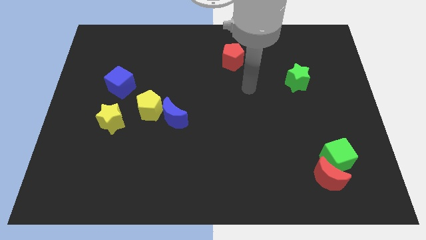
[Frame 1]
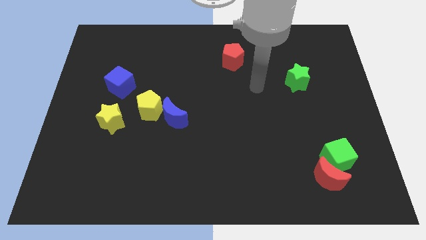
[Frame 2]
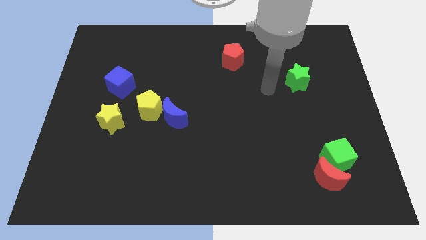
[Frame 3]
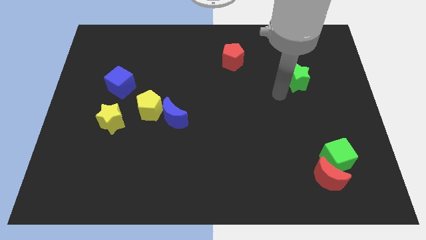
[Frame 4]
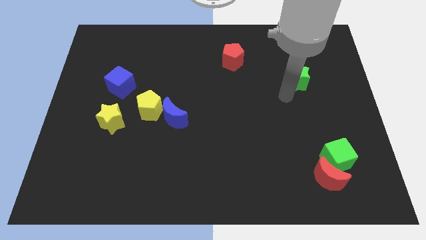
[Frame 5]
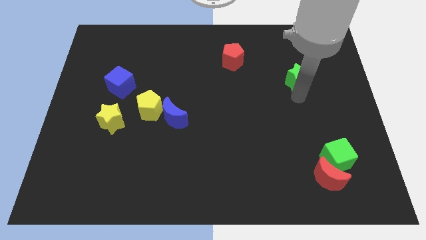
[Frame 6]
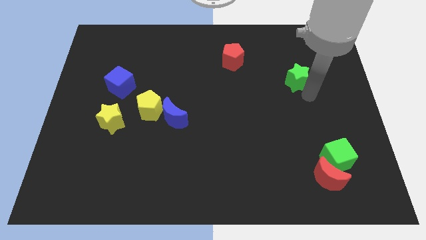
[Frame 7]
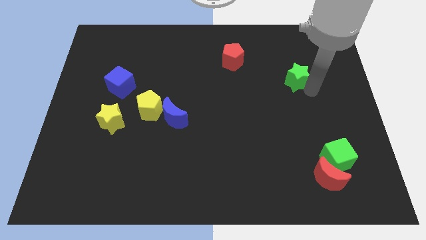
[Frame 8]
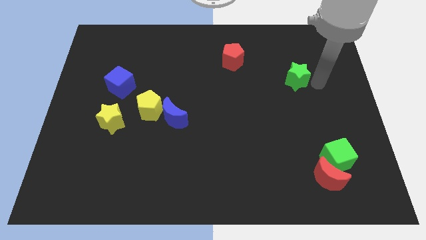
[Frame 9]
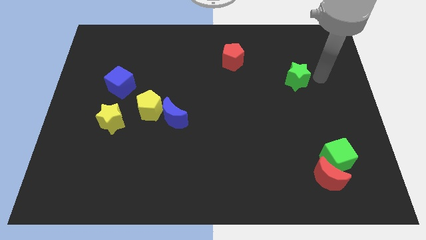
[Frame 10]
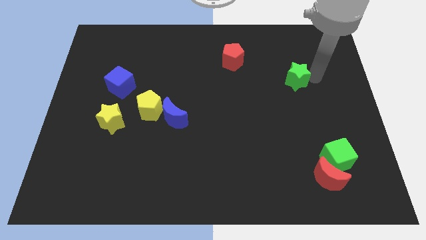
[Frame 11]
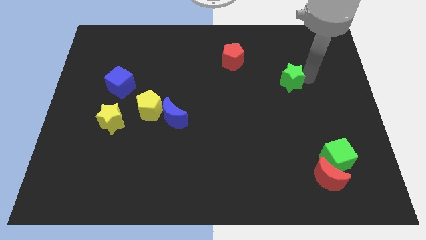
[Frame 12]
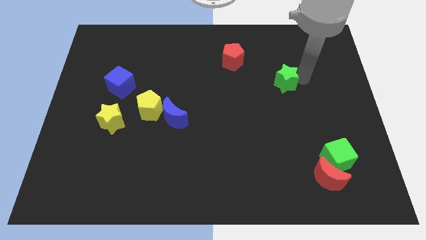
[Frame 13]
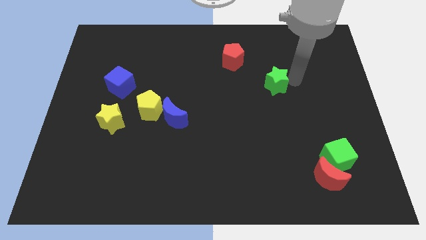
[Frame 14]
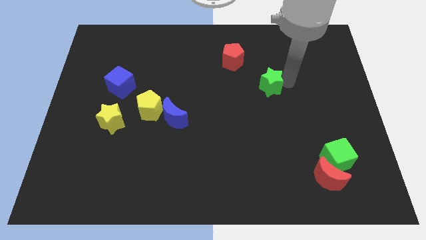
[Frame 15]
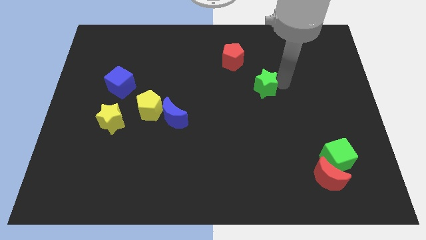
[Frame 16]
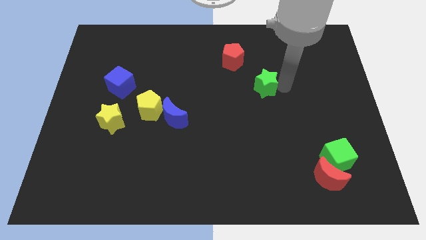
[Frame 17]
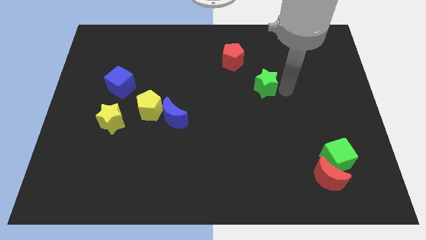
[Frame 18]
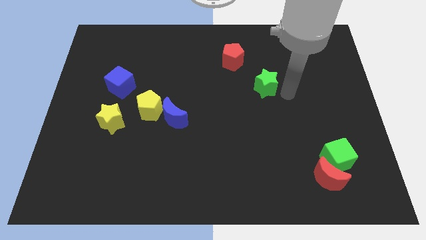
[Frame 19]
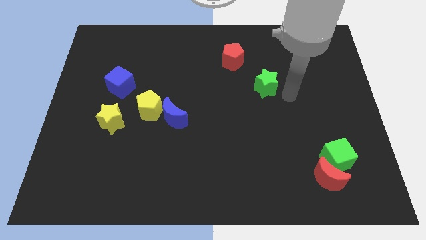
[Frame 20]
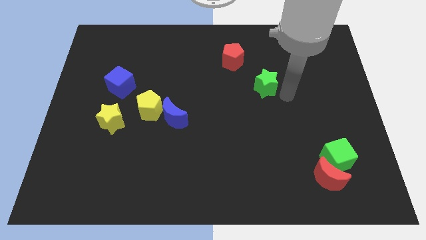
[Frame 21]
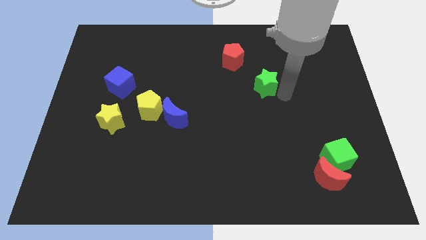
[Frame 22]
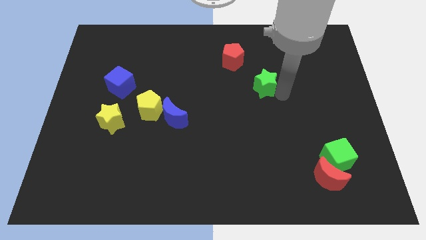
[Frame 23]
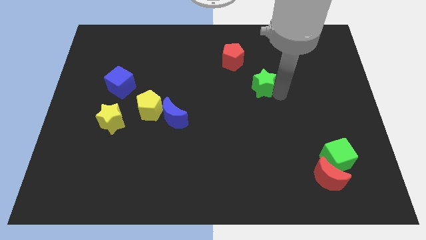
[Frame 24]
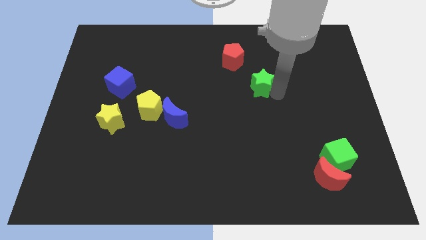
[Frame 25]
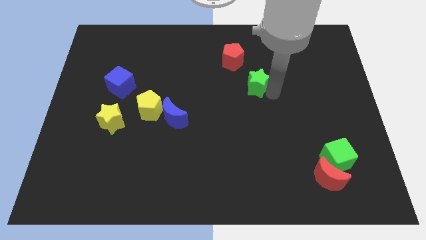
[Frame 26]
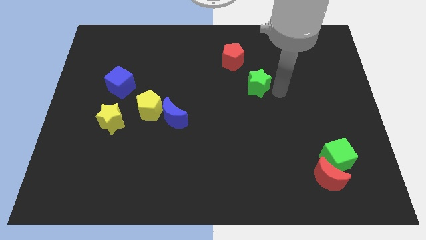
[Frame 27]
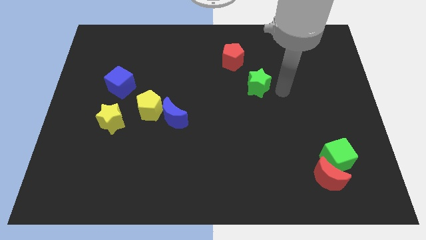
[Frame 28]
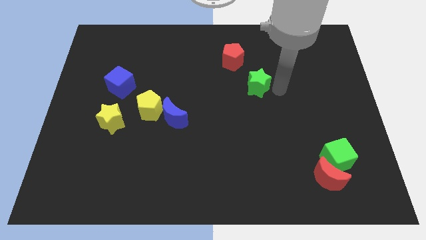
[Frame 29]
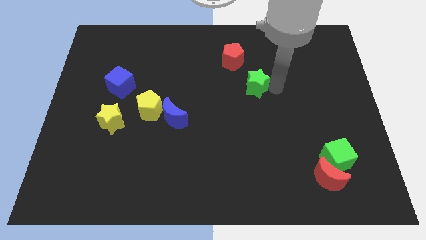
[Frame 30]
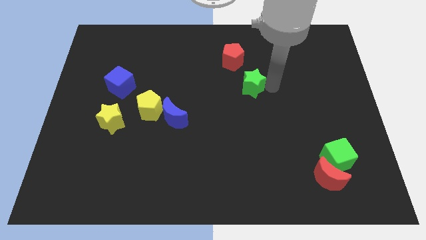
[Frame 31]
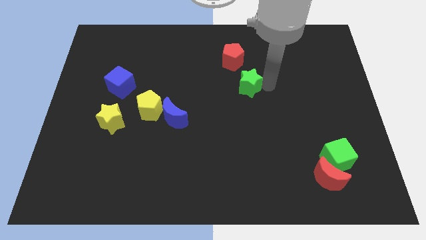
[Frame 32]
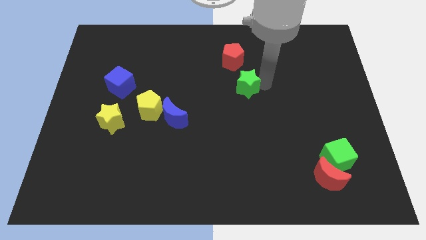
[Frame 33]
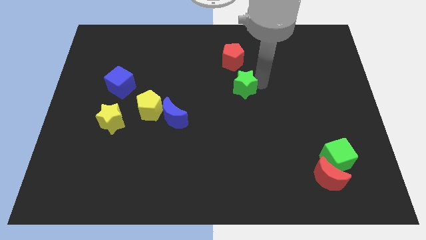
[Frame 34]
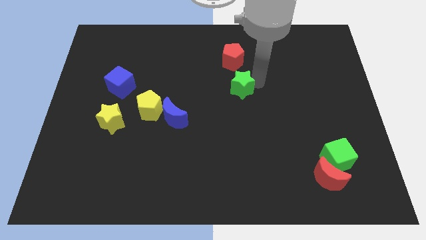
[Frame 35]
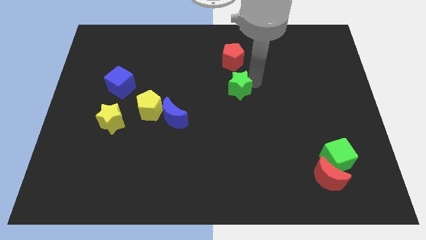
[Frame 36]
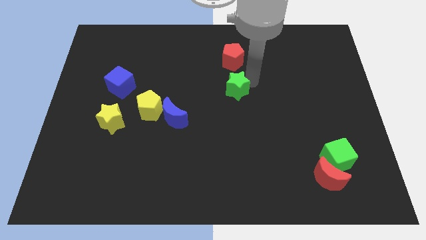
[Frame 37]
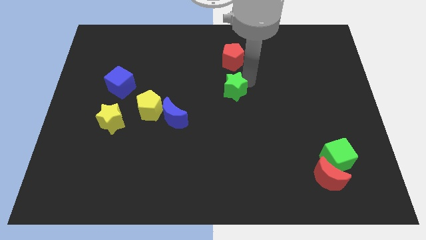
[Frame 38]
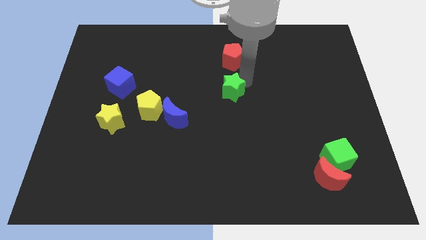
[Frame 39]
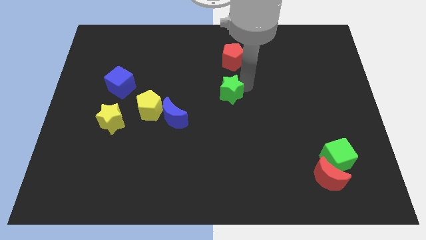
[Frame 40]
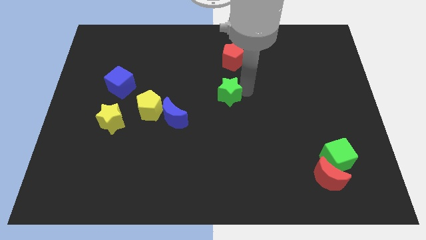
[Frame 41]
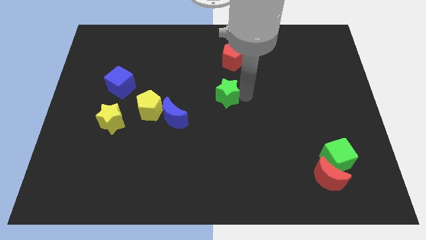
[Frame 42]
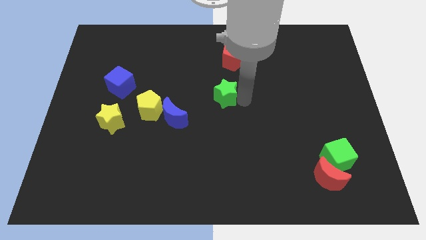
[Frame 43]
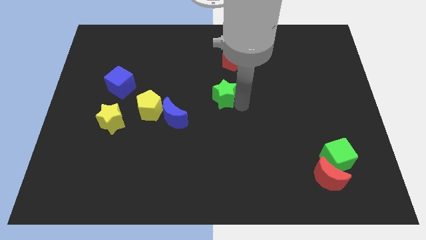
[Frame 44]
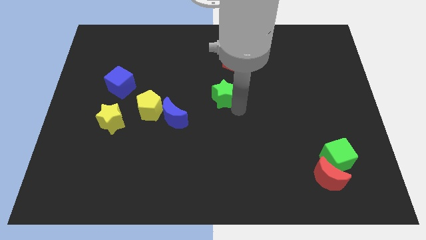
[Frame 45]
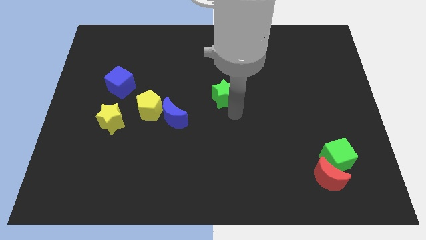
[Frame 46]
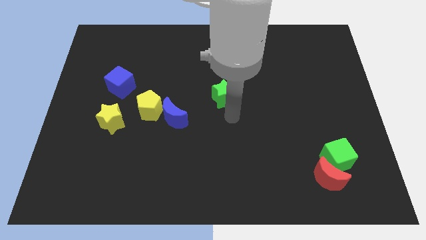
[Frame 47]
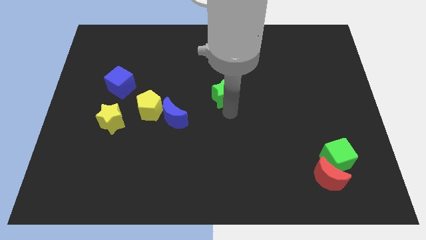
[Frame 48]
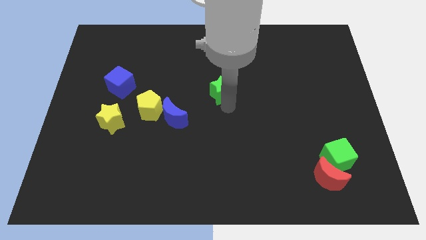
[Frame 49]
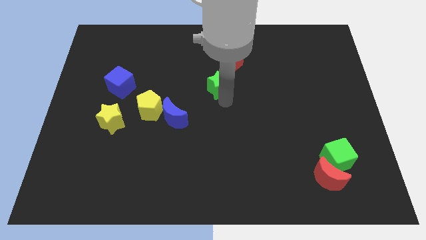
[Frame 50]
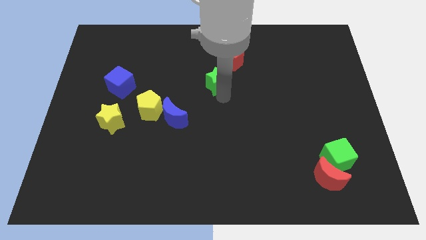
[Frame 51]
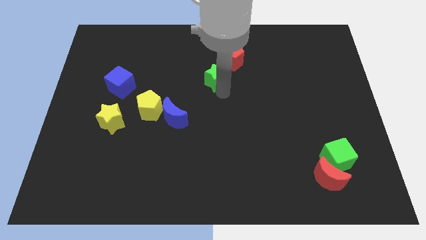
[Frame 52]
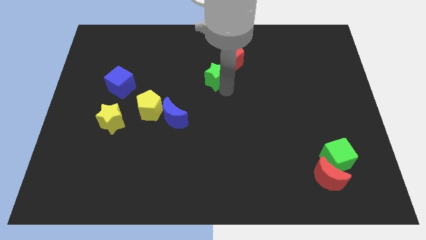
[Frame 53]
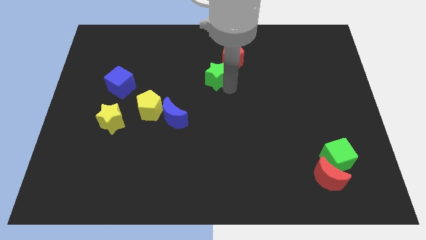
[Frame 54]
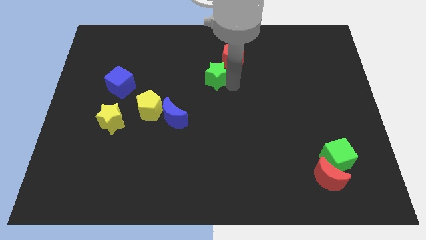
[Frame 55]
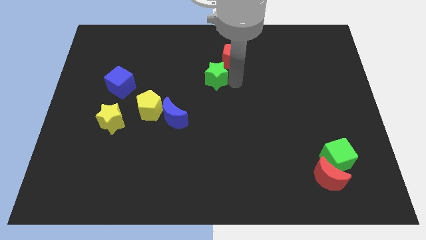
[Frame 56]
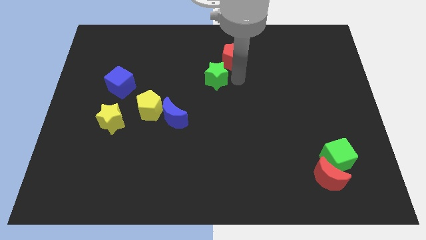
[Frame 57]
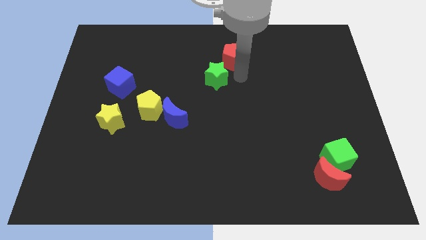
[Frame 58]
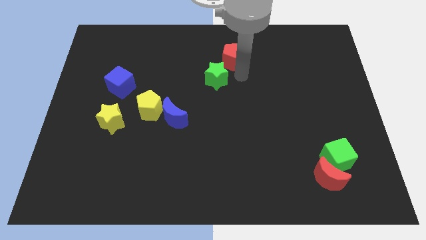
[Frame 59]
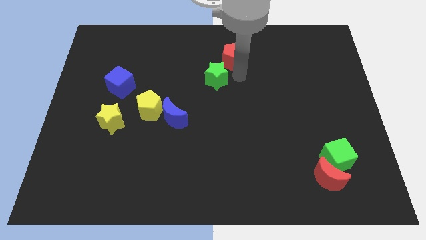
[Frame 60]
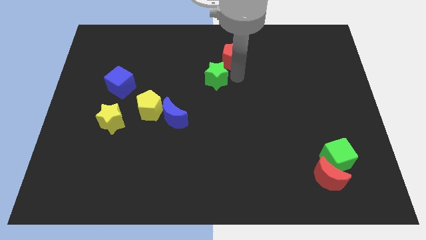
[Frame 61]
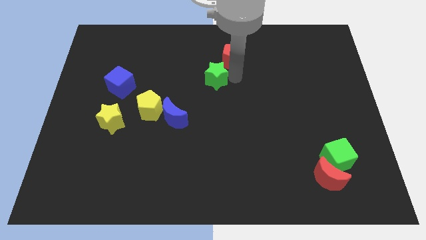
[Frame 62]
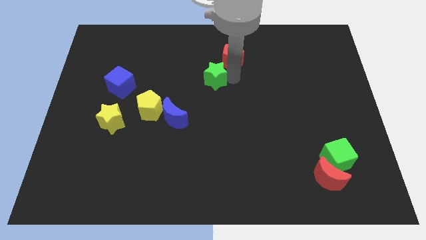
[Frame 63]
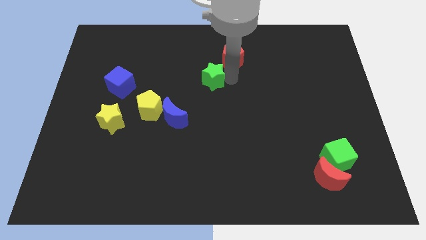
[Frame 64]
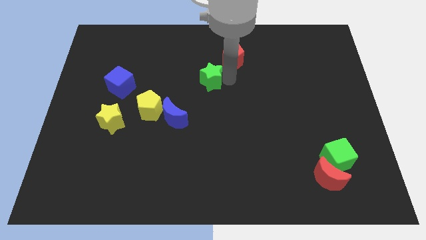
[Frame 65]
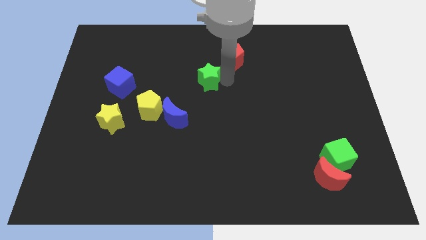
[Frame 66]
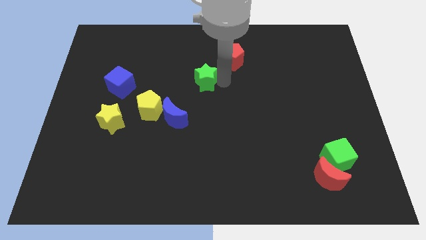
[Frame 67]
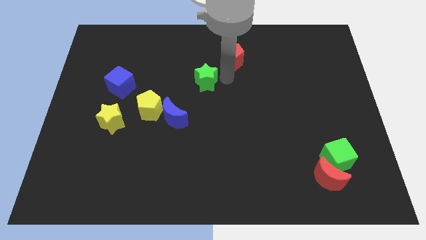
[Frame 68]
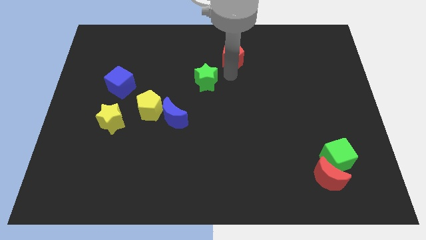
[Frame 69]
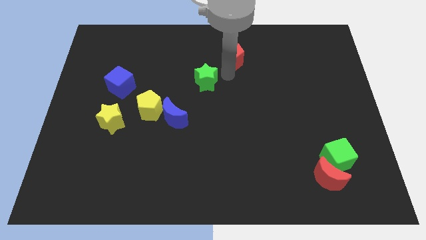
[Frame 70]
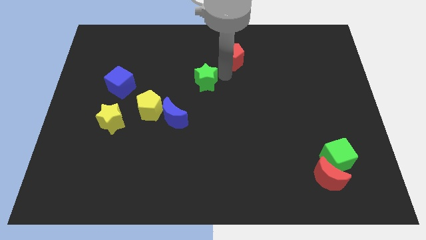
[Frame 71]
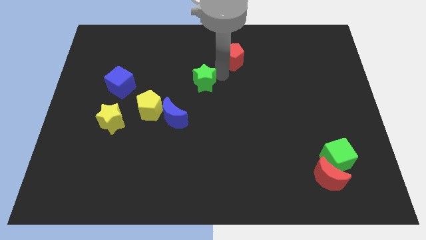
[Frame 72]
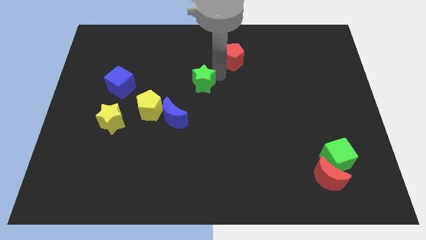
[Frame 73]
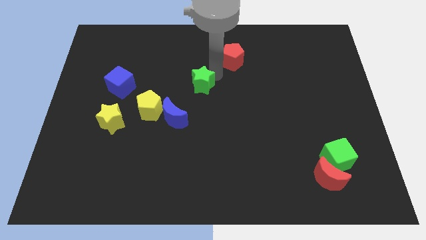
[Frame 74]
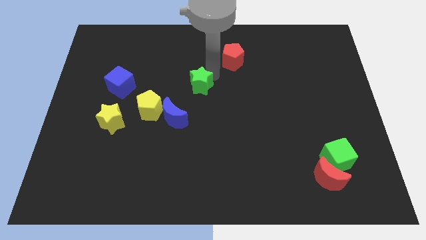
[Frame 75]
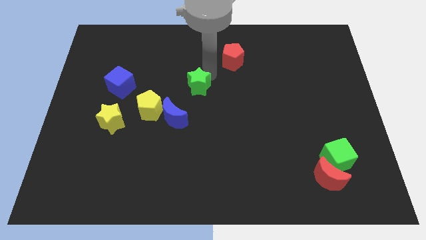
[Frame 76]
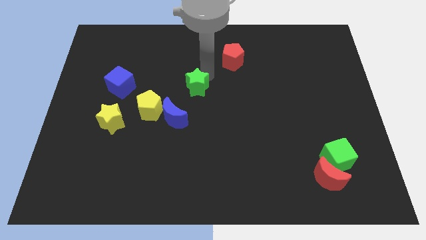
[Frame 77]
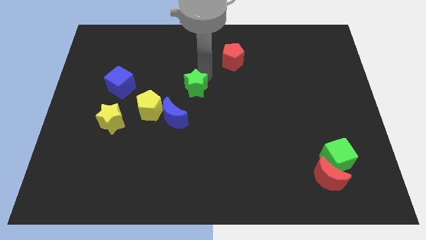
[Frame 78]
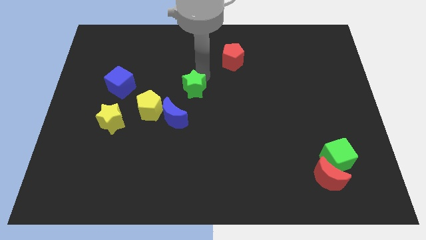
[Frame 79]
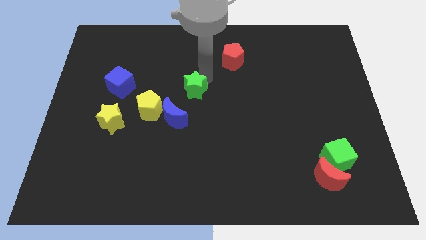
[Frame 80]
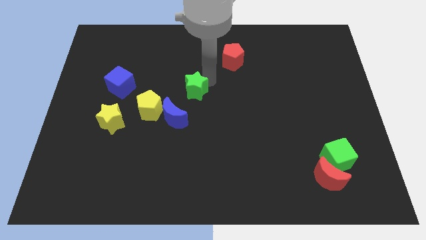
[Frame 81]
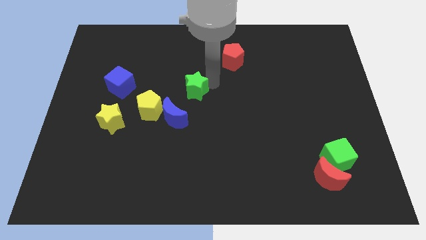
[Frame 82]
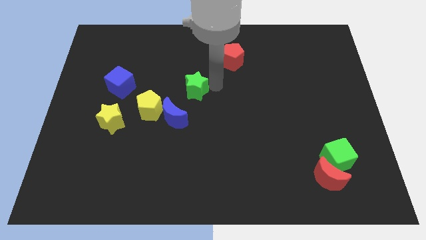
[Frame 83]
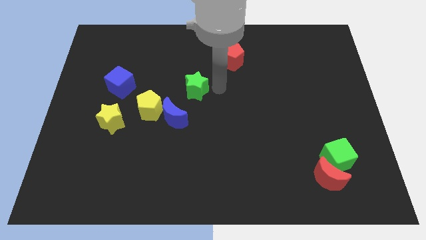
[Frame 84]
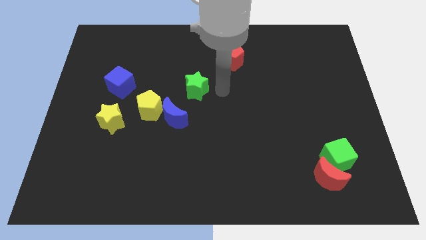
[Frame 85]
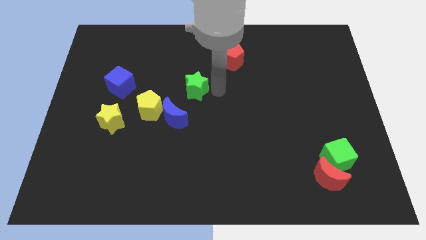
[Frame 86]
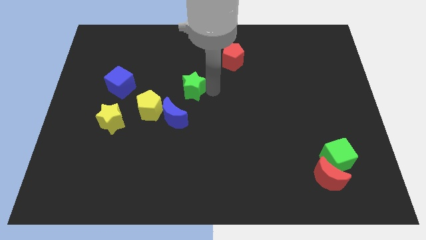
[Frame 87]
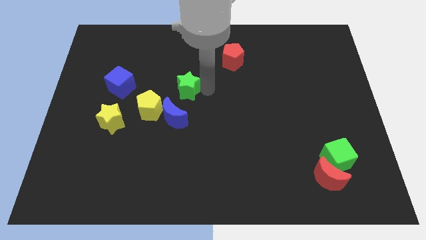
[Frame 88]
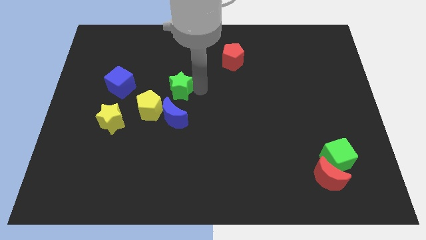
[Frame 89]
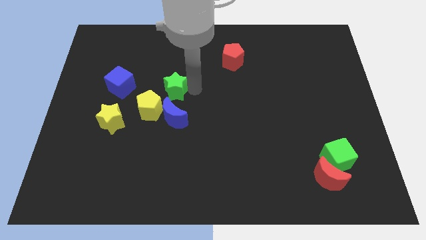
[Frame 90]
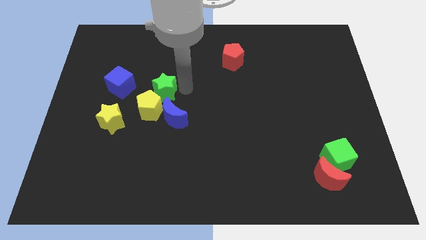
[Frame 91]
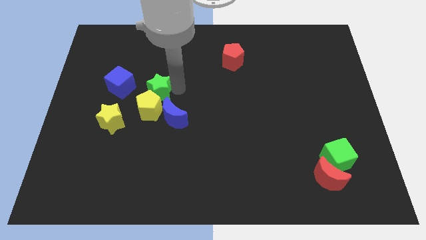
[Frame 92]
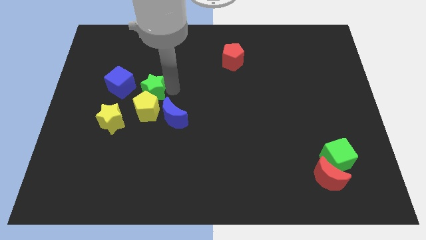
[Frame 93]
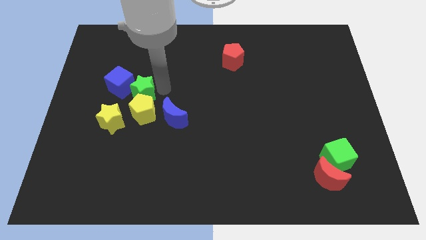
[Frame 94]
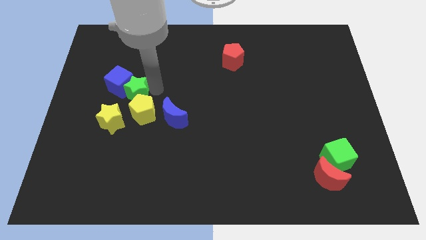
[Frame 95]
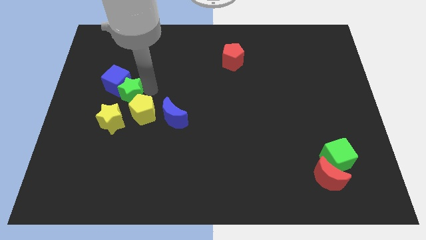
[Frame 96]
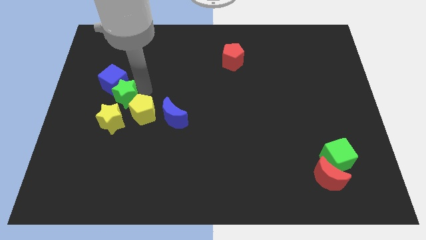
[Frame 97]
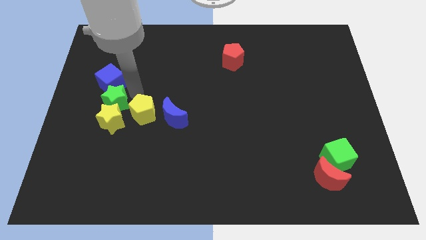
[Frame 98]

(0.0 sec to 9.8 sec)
put the green star to the top left side of the yellow star
